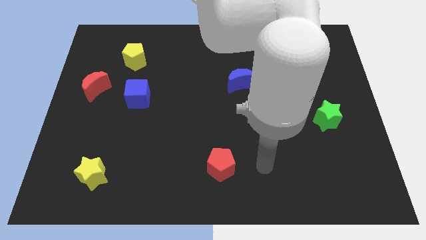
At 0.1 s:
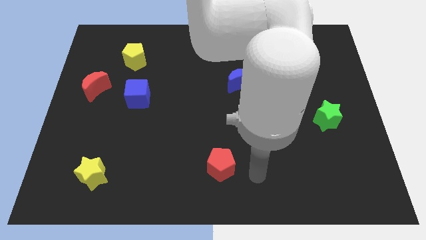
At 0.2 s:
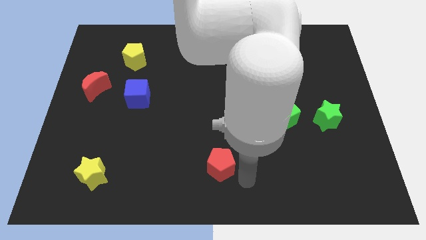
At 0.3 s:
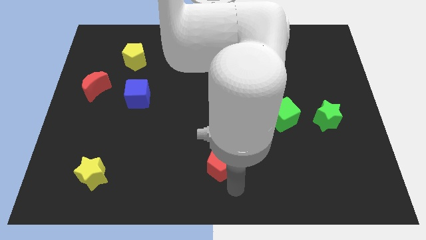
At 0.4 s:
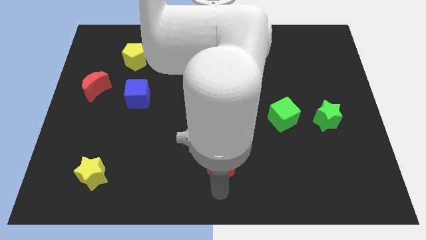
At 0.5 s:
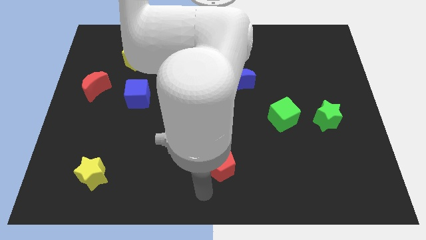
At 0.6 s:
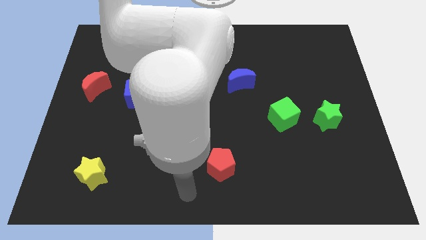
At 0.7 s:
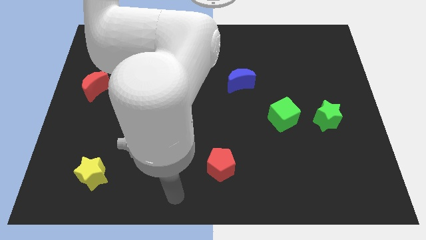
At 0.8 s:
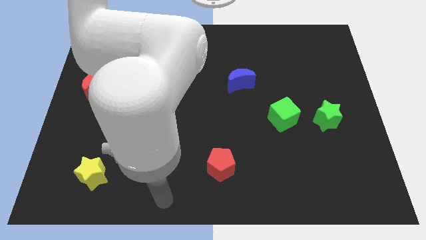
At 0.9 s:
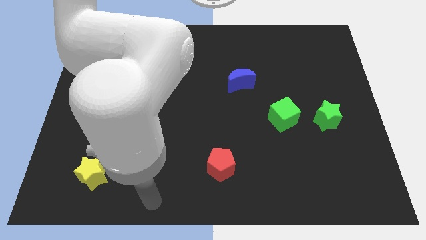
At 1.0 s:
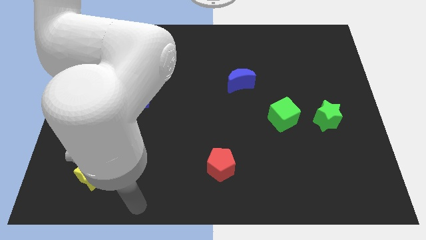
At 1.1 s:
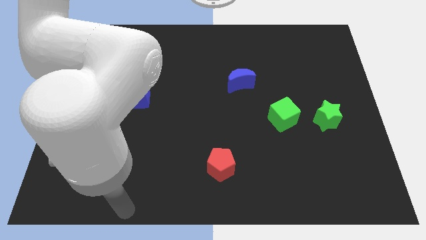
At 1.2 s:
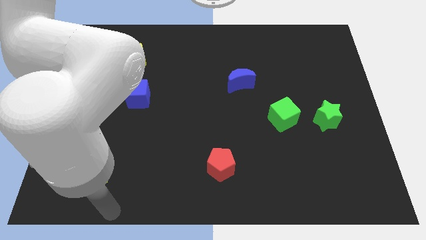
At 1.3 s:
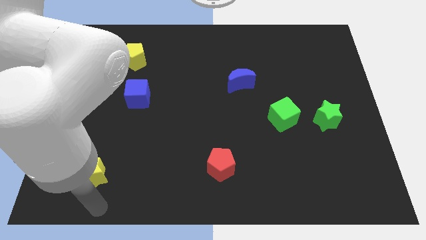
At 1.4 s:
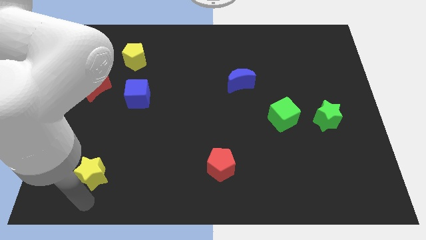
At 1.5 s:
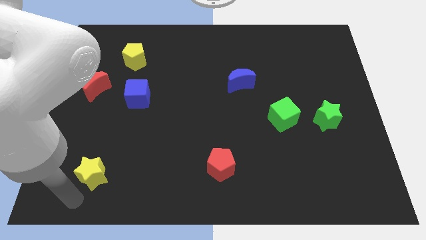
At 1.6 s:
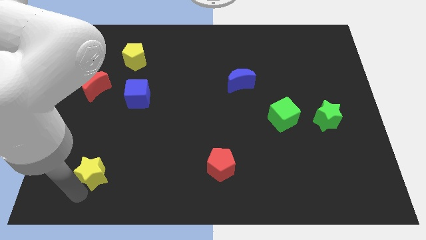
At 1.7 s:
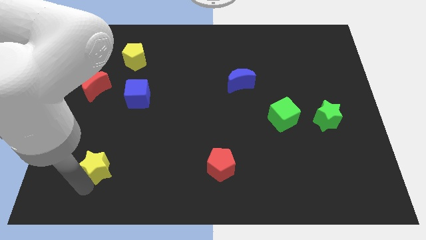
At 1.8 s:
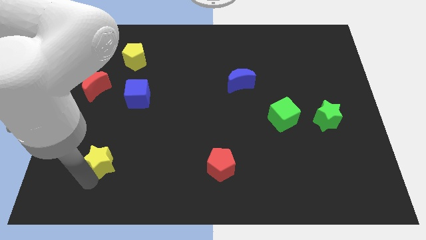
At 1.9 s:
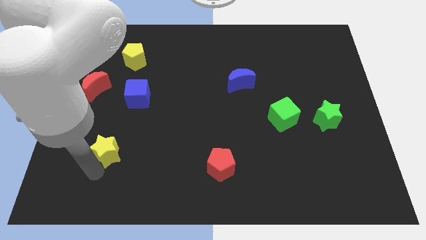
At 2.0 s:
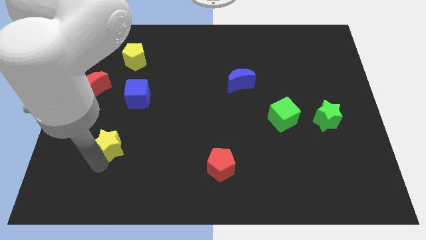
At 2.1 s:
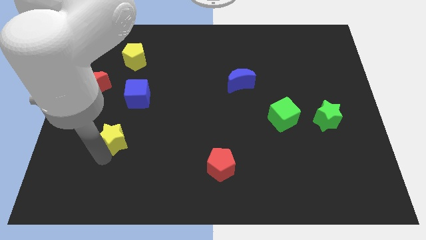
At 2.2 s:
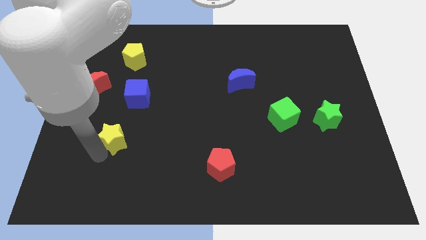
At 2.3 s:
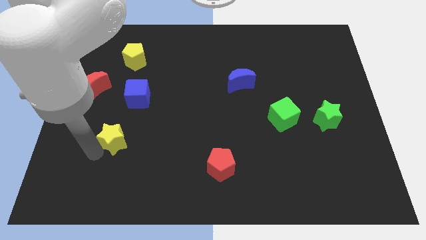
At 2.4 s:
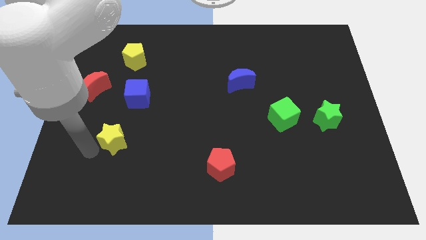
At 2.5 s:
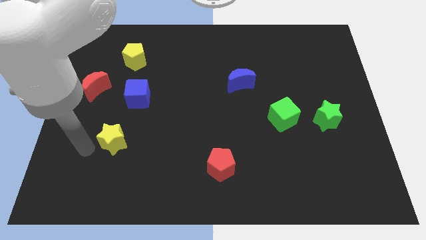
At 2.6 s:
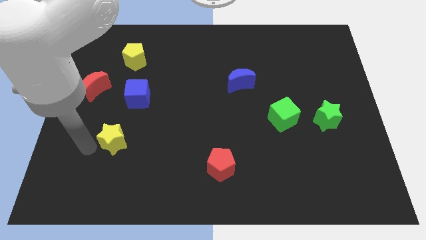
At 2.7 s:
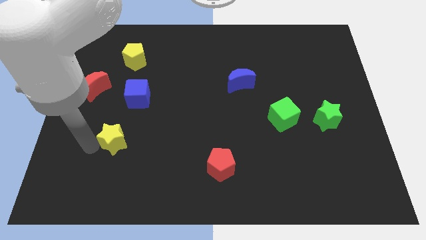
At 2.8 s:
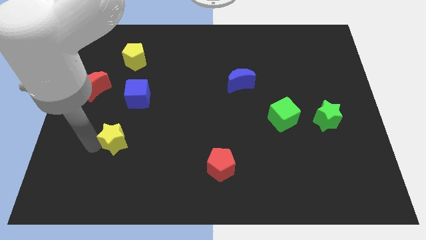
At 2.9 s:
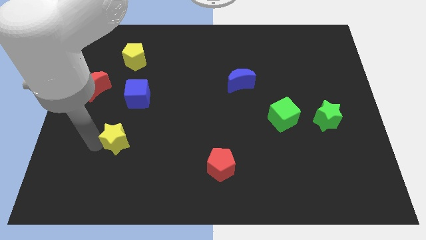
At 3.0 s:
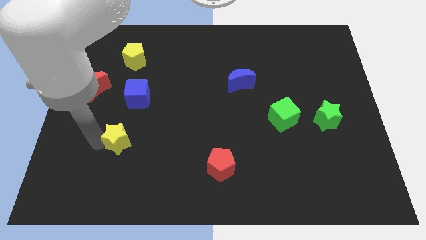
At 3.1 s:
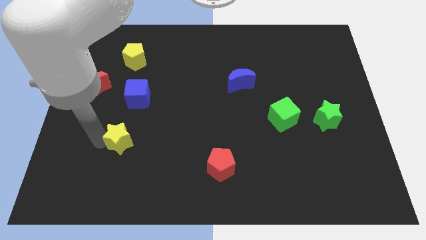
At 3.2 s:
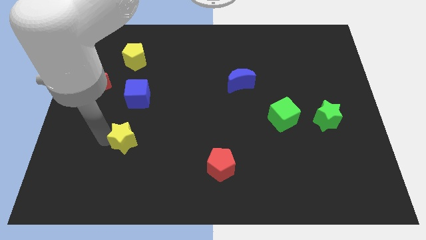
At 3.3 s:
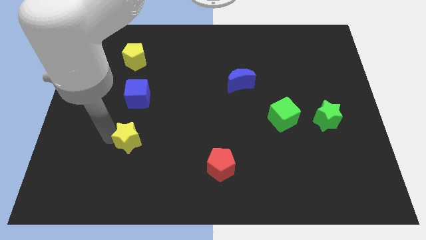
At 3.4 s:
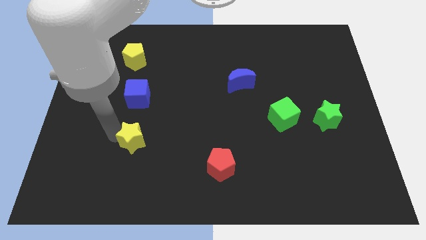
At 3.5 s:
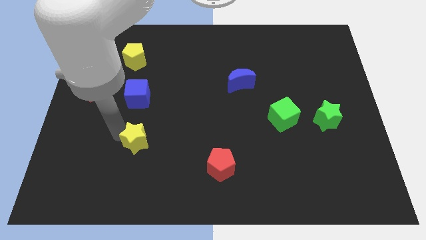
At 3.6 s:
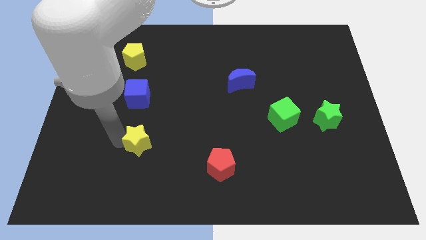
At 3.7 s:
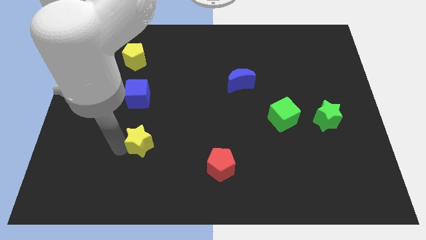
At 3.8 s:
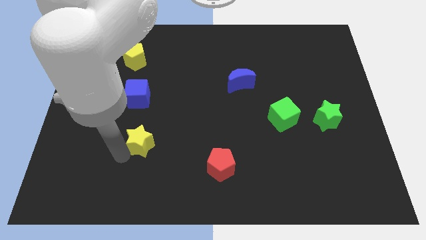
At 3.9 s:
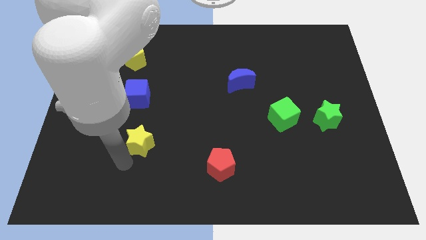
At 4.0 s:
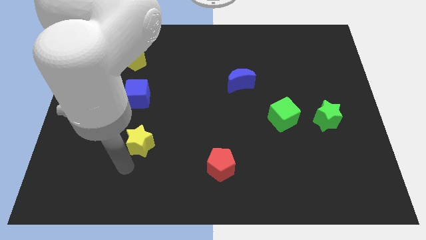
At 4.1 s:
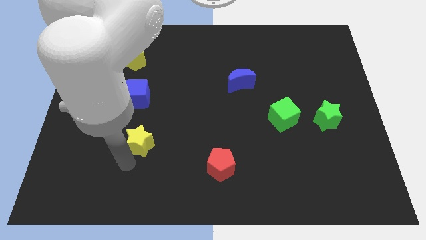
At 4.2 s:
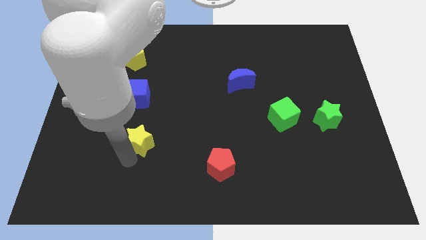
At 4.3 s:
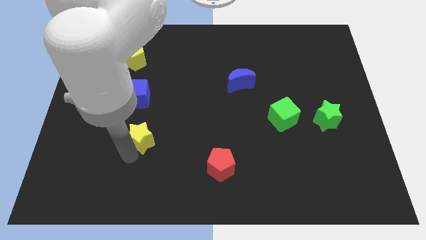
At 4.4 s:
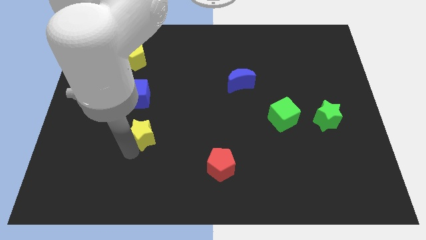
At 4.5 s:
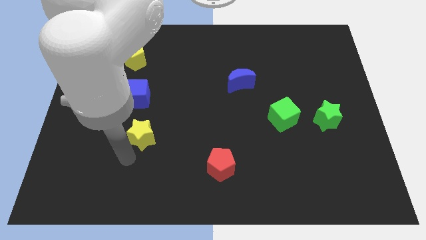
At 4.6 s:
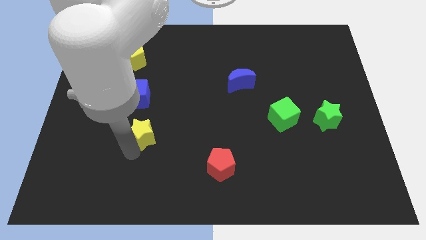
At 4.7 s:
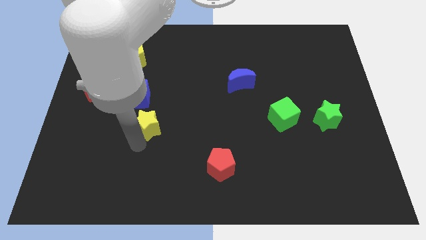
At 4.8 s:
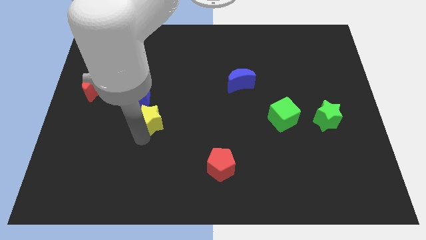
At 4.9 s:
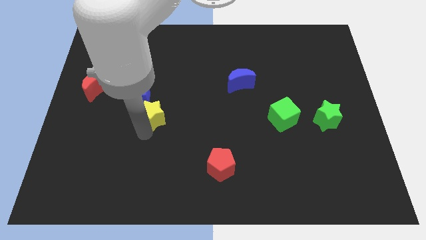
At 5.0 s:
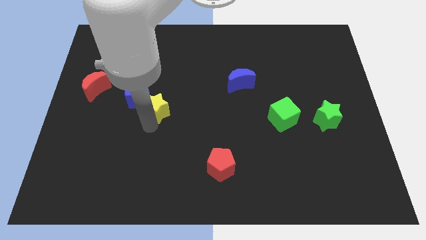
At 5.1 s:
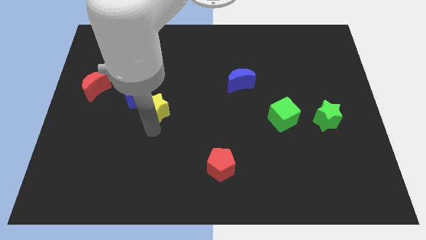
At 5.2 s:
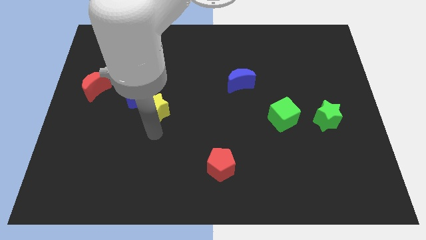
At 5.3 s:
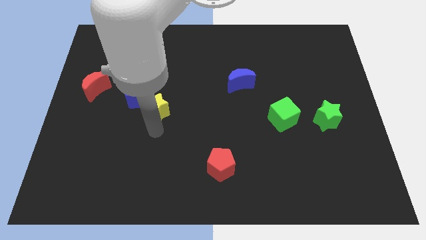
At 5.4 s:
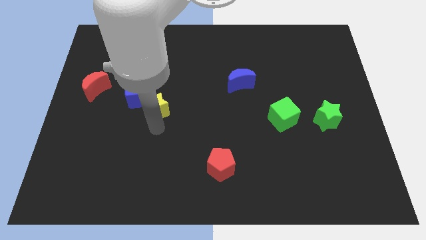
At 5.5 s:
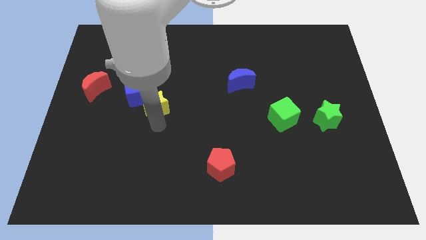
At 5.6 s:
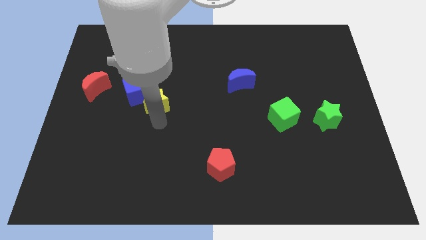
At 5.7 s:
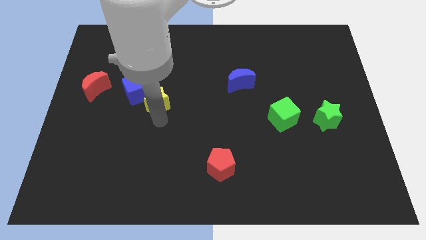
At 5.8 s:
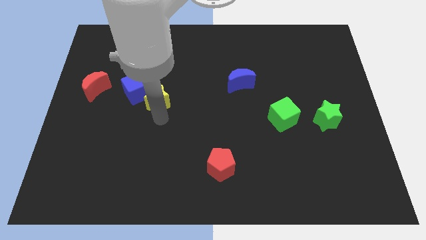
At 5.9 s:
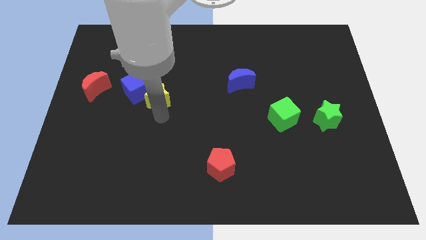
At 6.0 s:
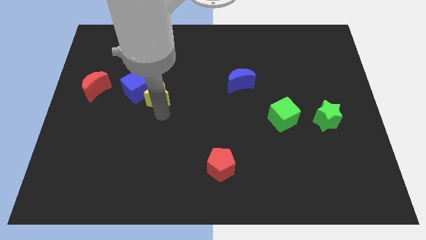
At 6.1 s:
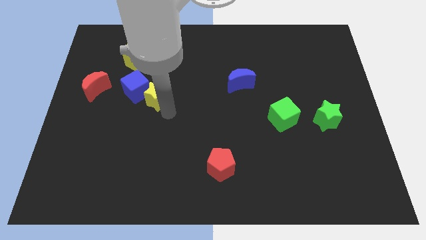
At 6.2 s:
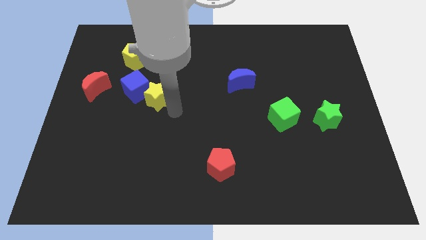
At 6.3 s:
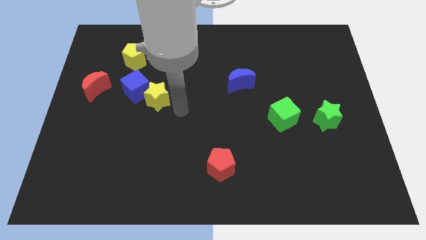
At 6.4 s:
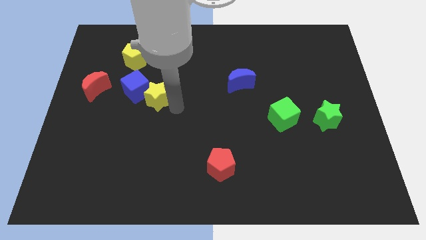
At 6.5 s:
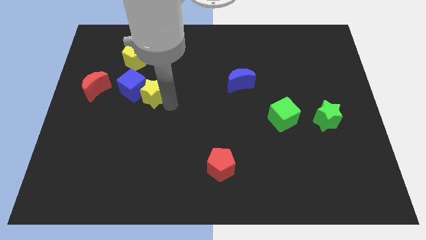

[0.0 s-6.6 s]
move the yellow star to the right of the red moon

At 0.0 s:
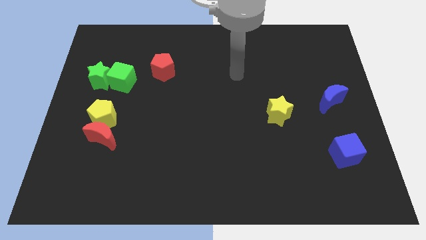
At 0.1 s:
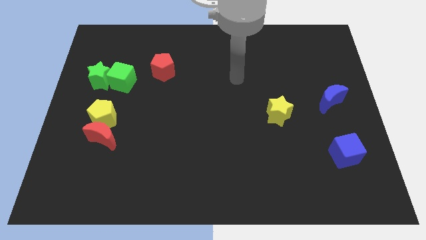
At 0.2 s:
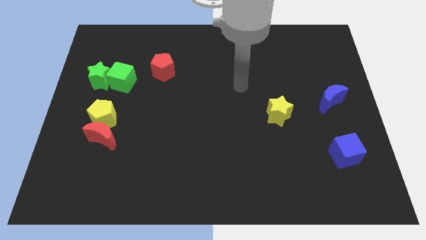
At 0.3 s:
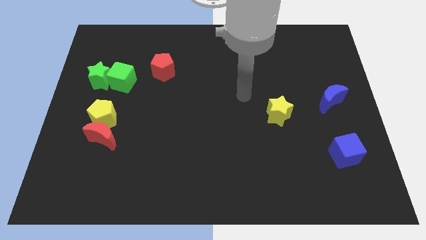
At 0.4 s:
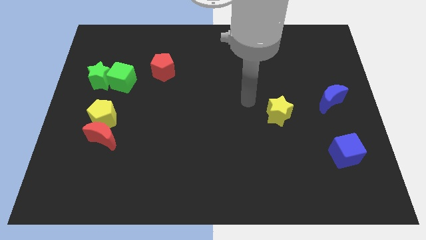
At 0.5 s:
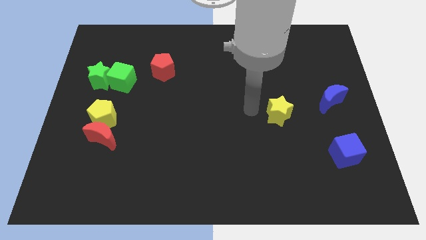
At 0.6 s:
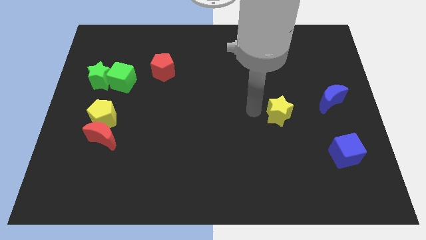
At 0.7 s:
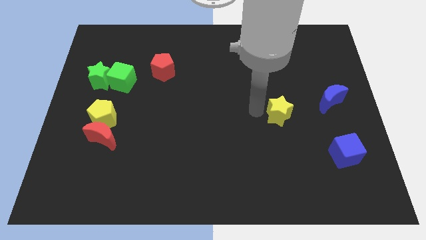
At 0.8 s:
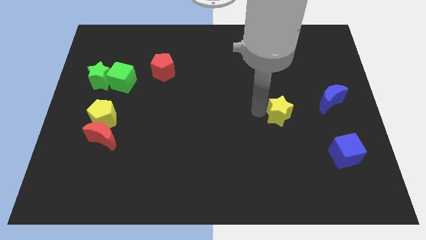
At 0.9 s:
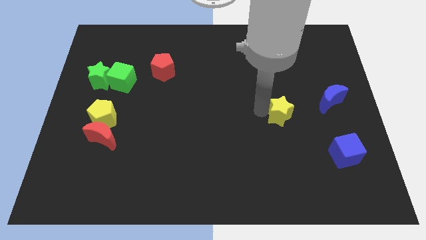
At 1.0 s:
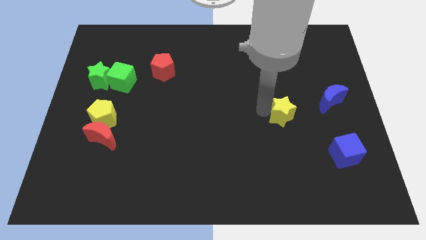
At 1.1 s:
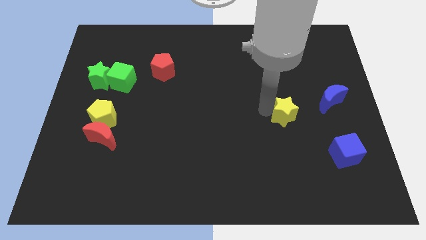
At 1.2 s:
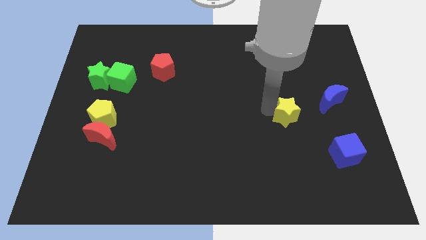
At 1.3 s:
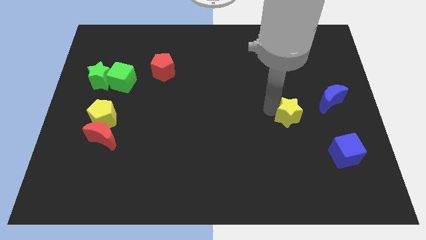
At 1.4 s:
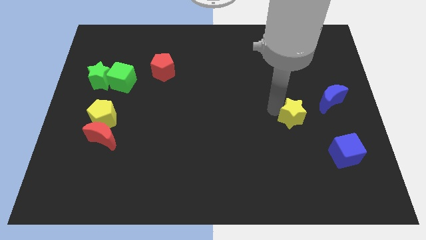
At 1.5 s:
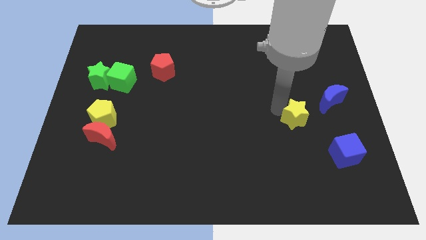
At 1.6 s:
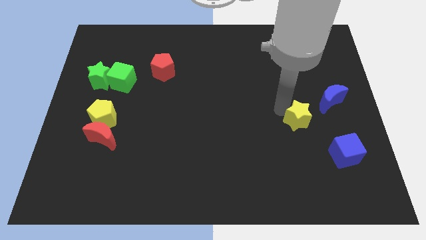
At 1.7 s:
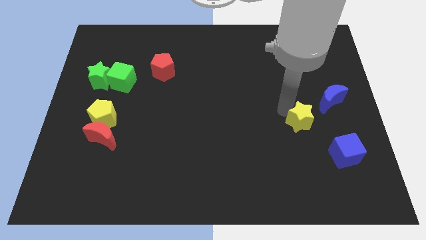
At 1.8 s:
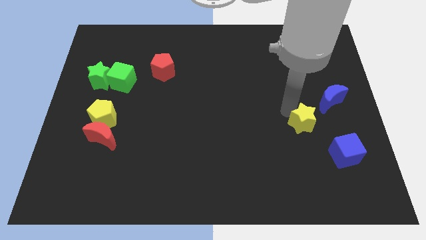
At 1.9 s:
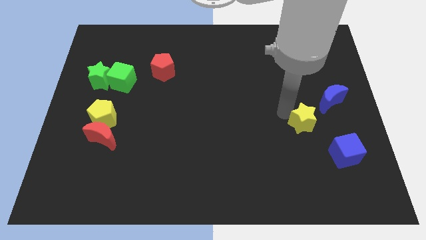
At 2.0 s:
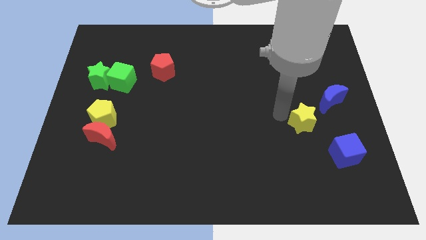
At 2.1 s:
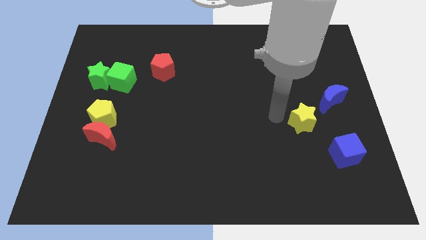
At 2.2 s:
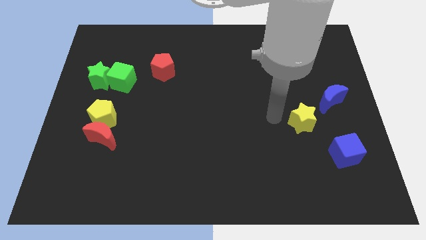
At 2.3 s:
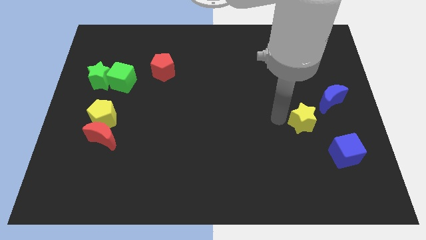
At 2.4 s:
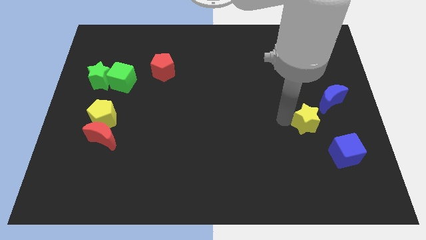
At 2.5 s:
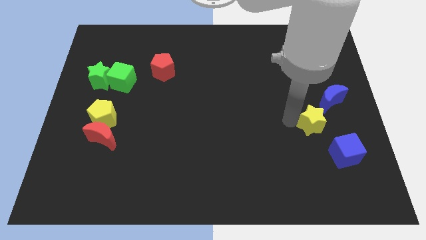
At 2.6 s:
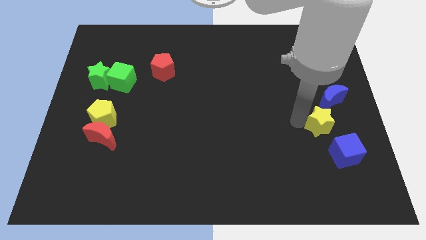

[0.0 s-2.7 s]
push the yellow star to the bottom of the blue moon
